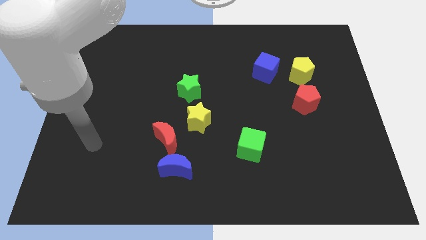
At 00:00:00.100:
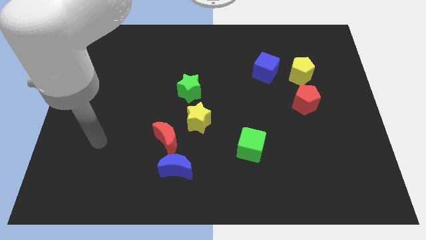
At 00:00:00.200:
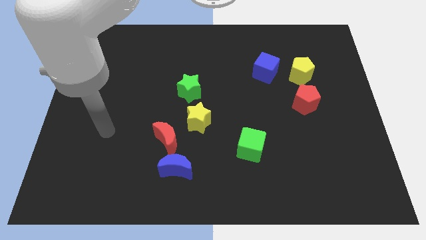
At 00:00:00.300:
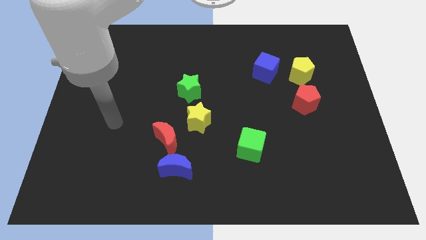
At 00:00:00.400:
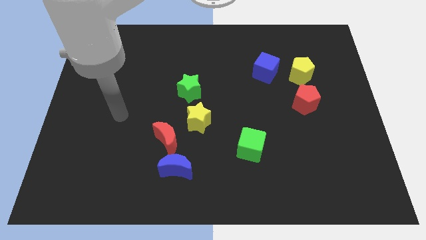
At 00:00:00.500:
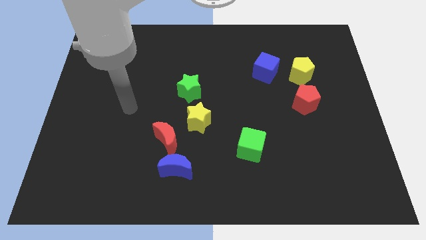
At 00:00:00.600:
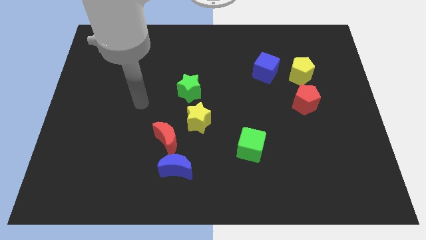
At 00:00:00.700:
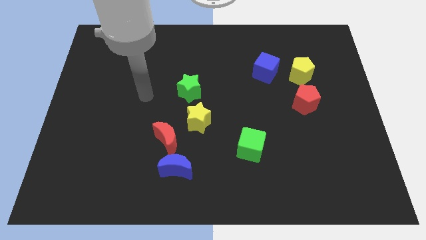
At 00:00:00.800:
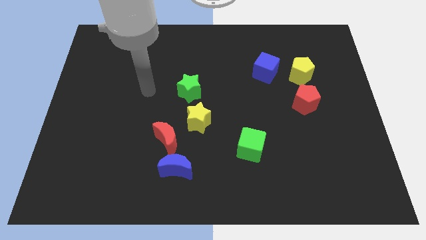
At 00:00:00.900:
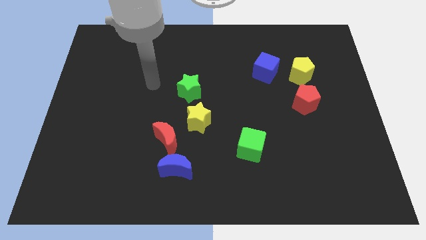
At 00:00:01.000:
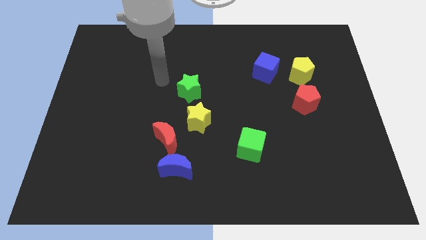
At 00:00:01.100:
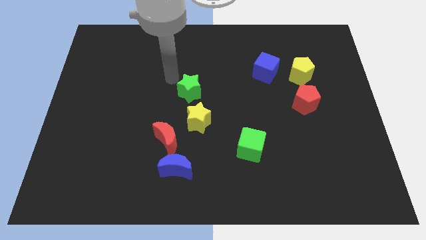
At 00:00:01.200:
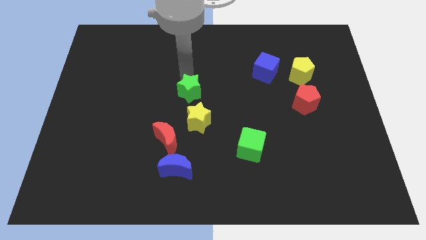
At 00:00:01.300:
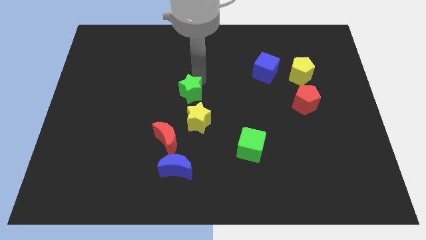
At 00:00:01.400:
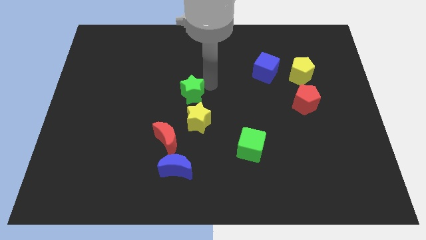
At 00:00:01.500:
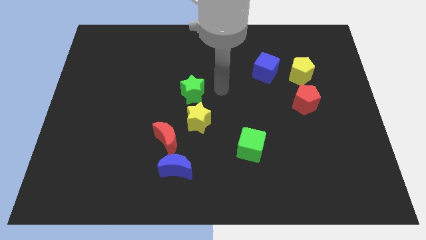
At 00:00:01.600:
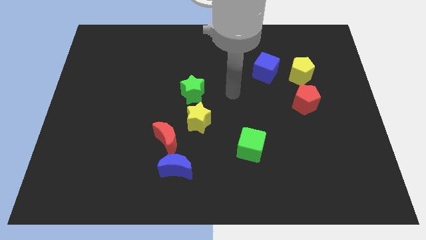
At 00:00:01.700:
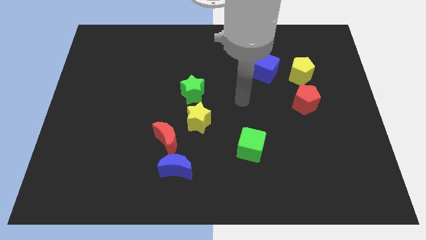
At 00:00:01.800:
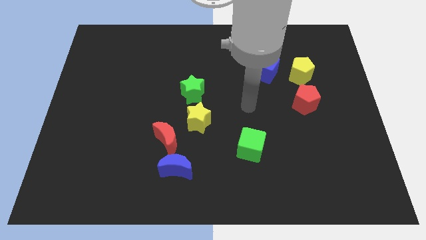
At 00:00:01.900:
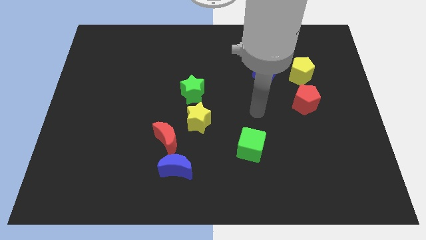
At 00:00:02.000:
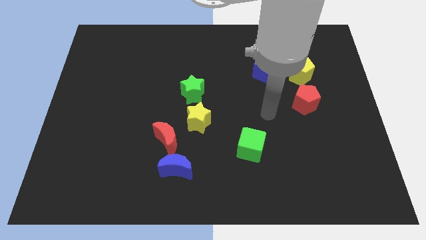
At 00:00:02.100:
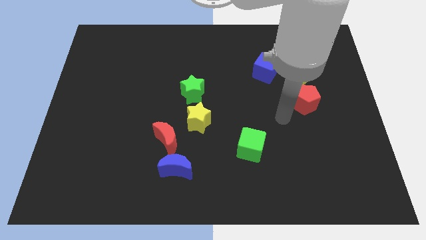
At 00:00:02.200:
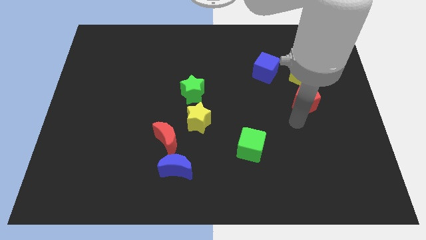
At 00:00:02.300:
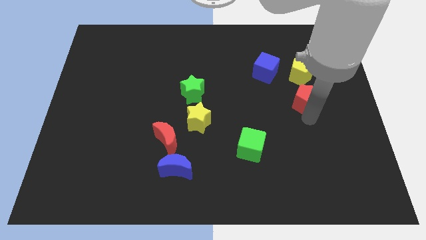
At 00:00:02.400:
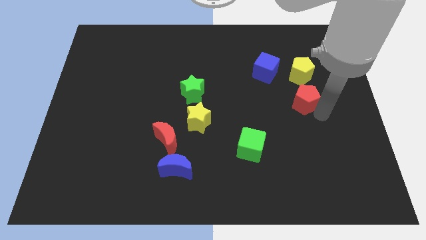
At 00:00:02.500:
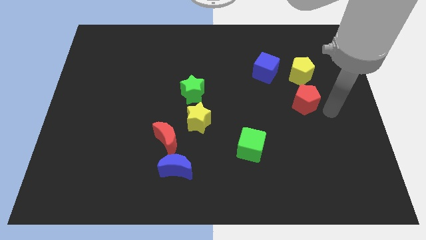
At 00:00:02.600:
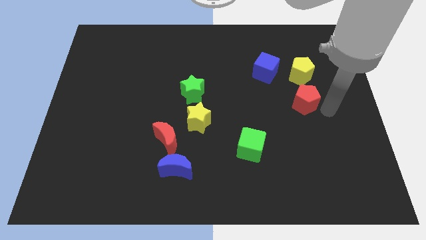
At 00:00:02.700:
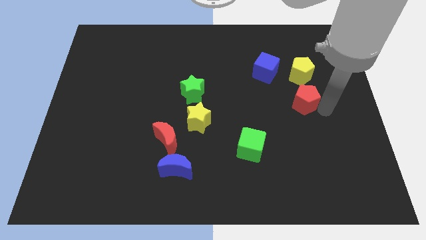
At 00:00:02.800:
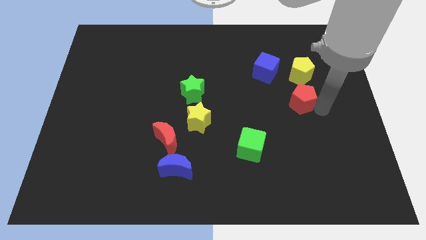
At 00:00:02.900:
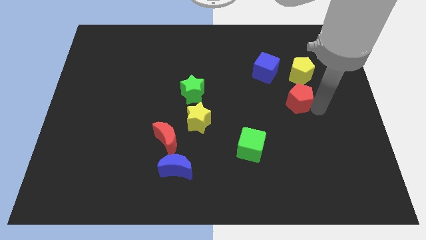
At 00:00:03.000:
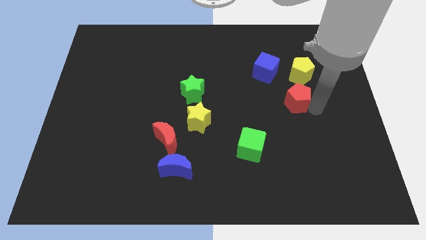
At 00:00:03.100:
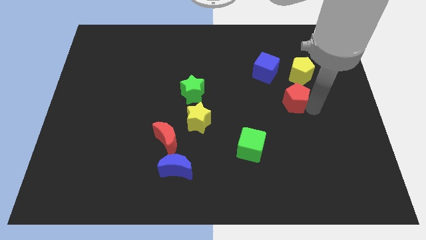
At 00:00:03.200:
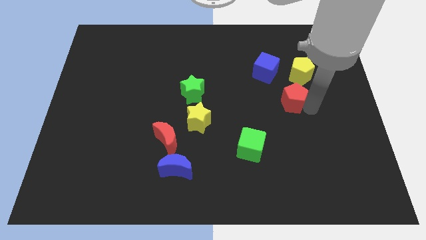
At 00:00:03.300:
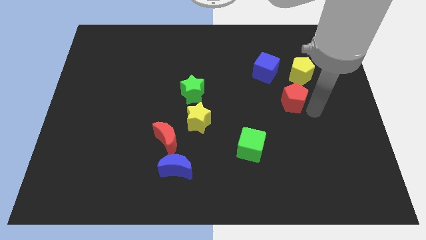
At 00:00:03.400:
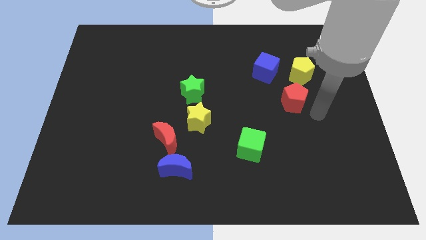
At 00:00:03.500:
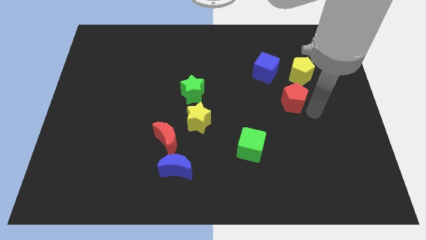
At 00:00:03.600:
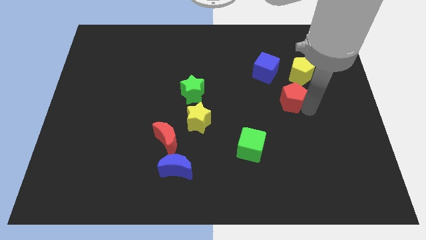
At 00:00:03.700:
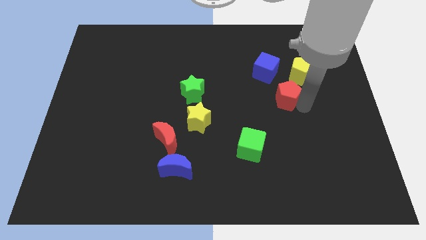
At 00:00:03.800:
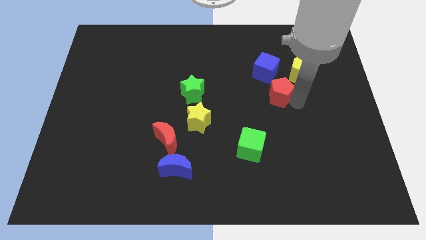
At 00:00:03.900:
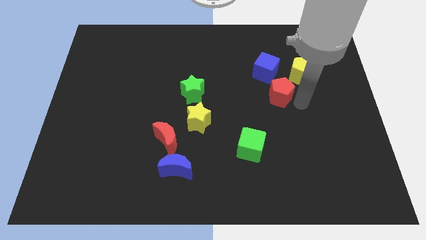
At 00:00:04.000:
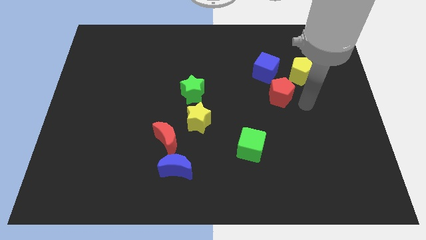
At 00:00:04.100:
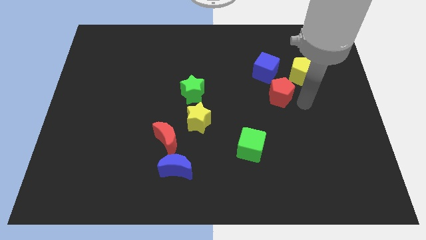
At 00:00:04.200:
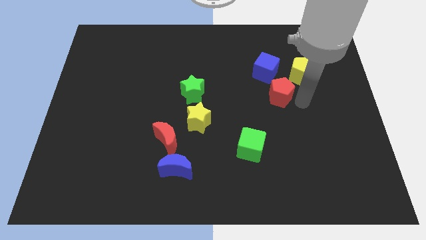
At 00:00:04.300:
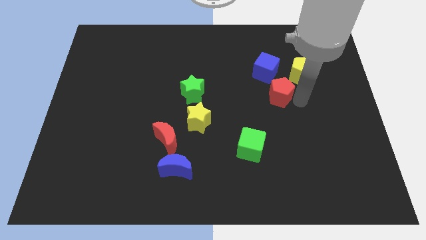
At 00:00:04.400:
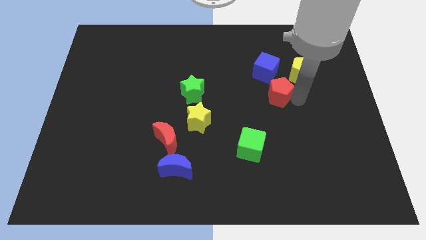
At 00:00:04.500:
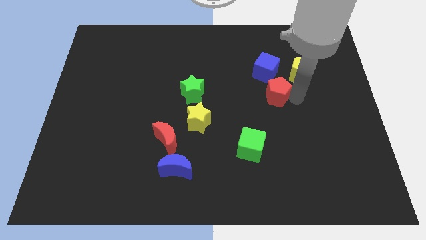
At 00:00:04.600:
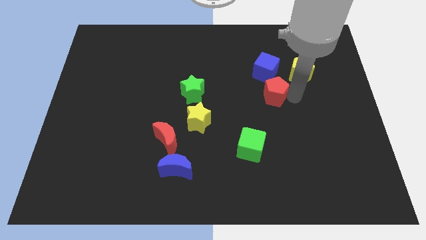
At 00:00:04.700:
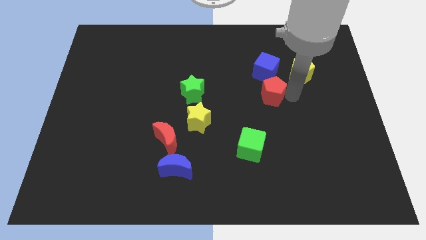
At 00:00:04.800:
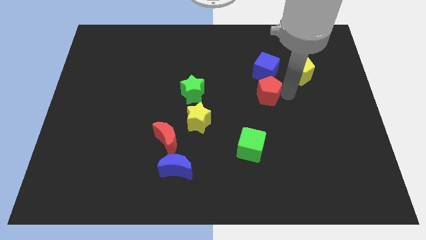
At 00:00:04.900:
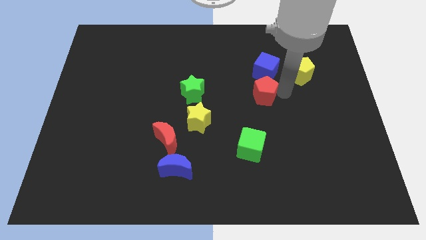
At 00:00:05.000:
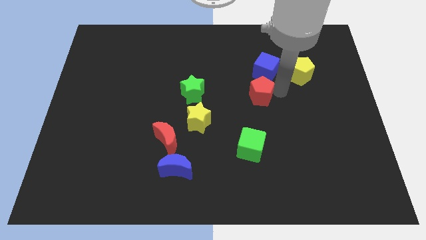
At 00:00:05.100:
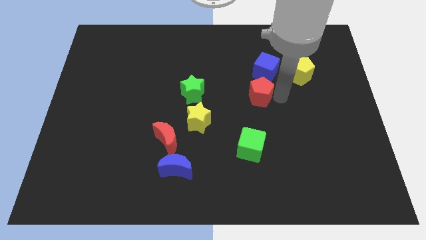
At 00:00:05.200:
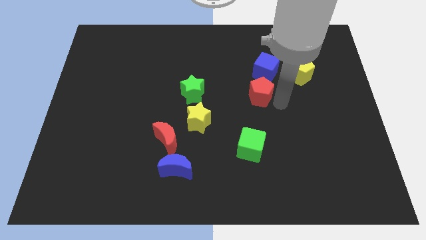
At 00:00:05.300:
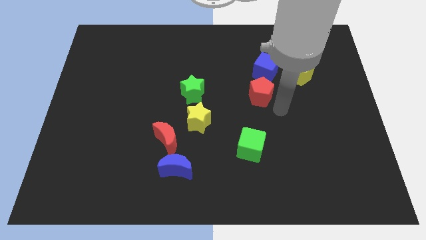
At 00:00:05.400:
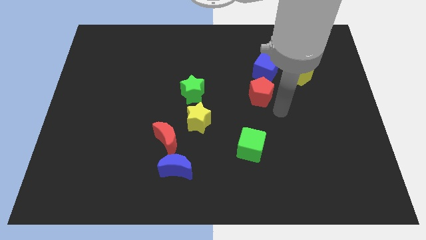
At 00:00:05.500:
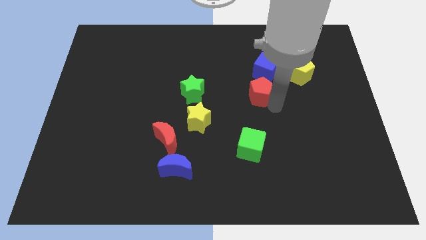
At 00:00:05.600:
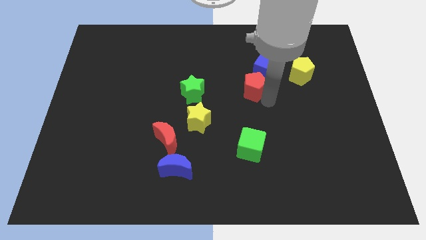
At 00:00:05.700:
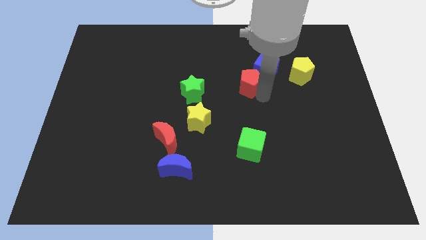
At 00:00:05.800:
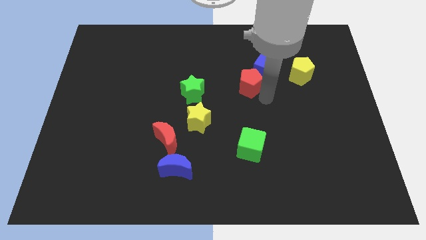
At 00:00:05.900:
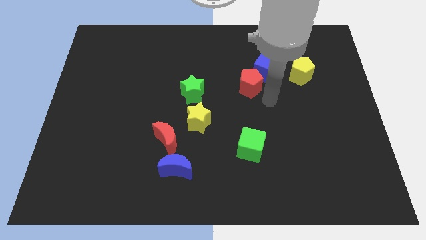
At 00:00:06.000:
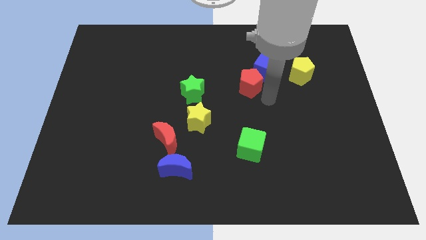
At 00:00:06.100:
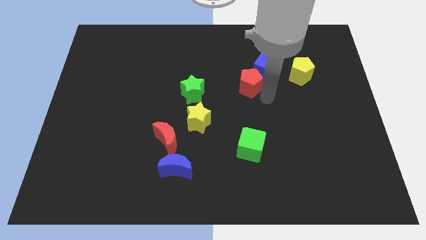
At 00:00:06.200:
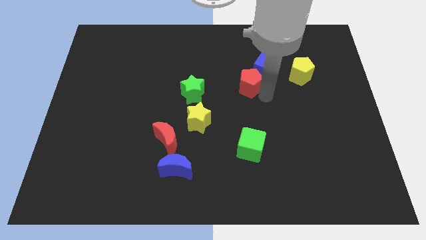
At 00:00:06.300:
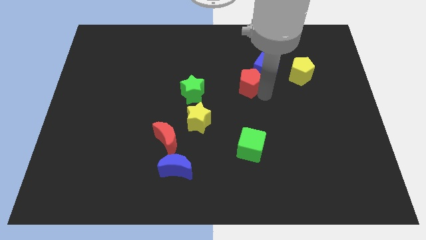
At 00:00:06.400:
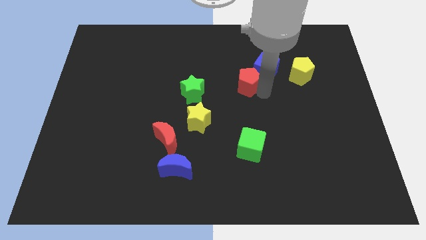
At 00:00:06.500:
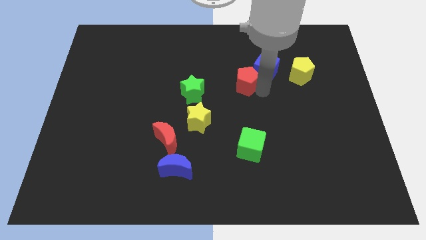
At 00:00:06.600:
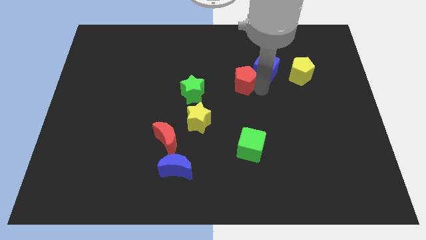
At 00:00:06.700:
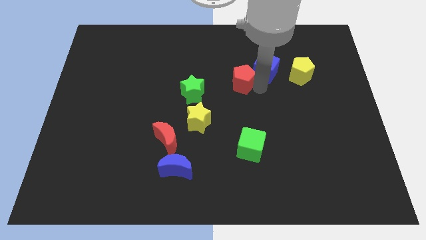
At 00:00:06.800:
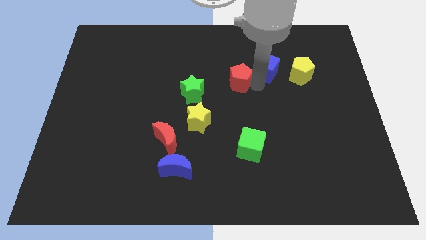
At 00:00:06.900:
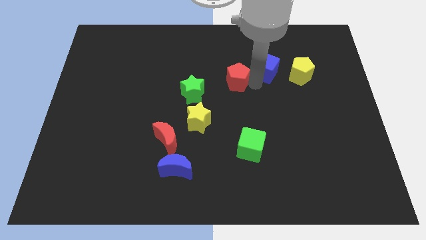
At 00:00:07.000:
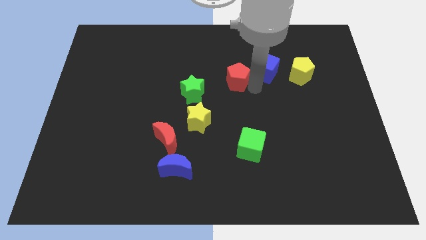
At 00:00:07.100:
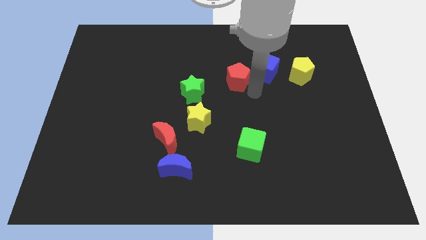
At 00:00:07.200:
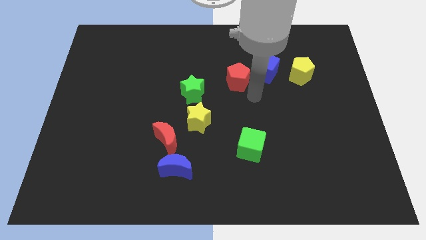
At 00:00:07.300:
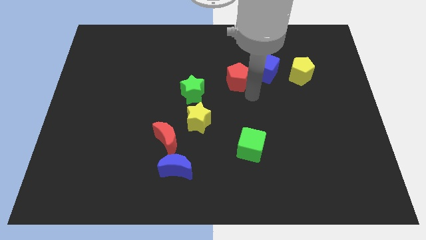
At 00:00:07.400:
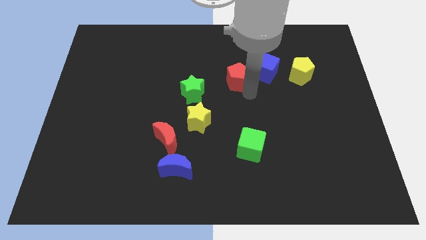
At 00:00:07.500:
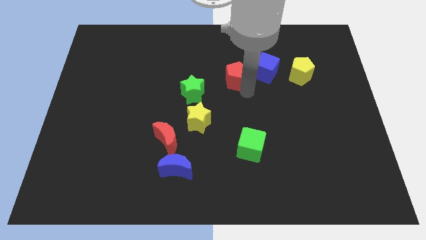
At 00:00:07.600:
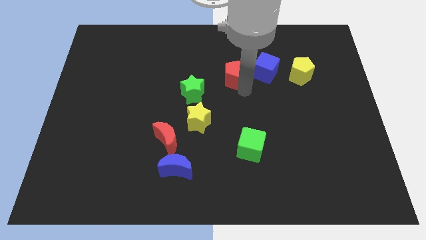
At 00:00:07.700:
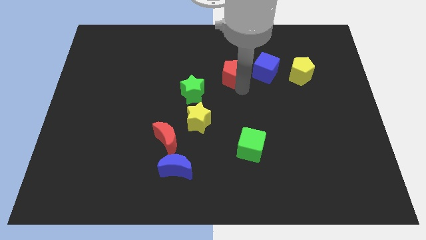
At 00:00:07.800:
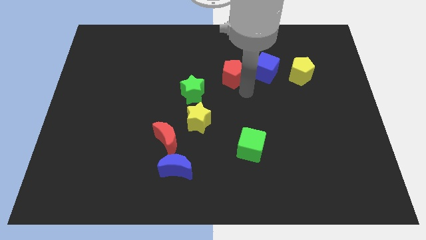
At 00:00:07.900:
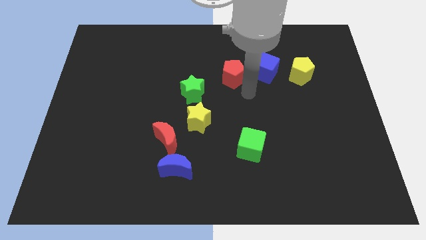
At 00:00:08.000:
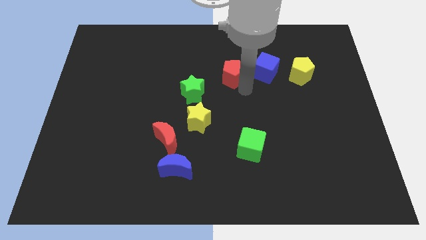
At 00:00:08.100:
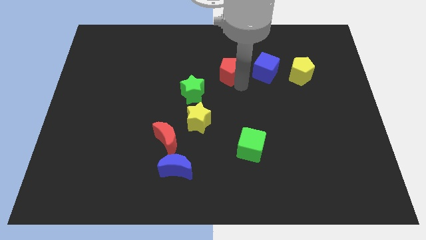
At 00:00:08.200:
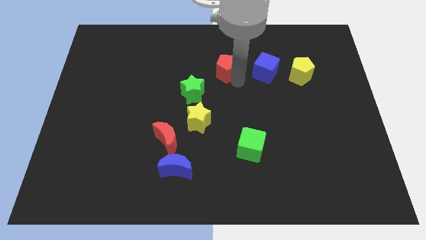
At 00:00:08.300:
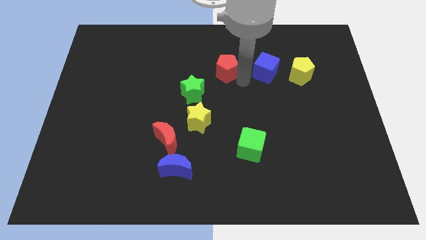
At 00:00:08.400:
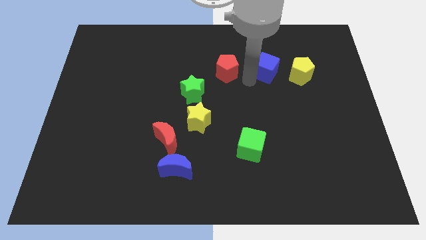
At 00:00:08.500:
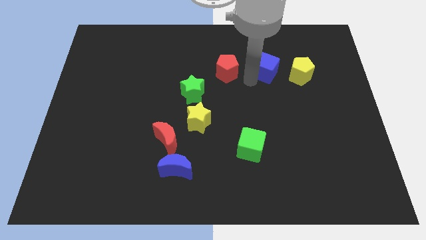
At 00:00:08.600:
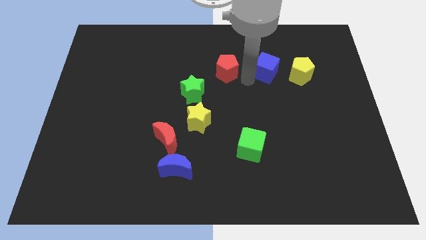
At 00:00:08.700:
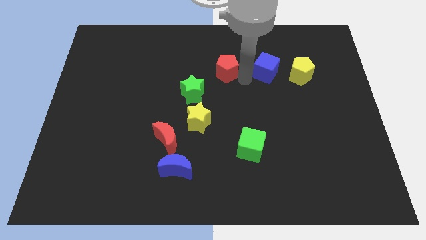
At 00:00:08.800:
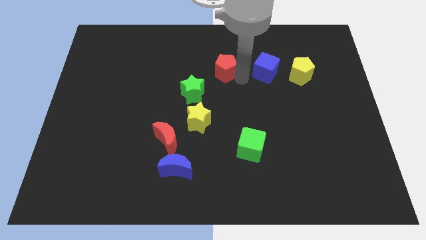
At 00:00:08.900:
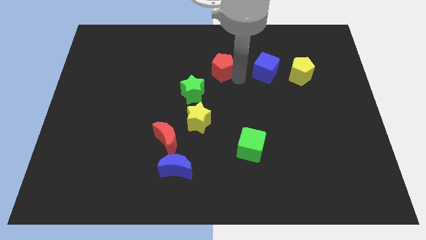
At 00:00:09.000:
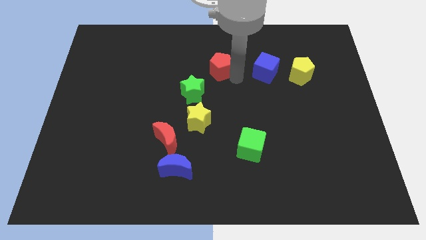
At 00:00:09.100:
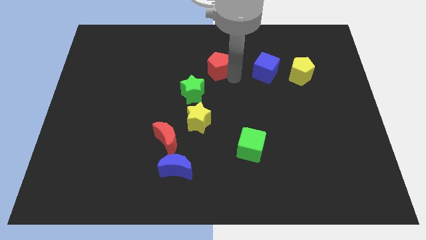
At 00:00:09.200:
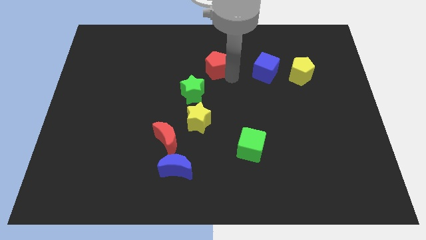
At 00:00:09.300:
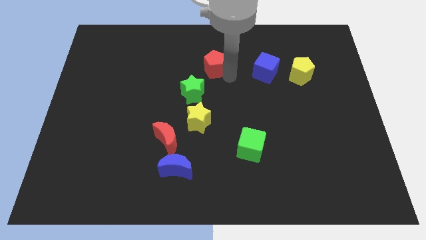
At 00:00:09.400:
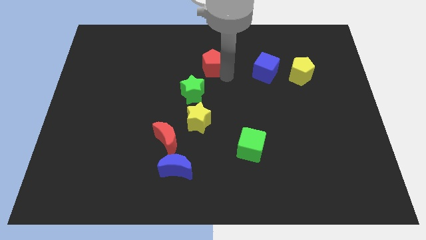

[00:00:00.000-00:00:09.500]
slide the red pentagon to the top of the green star
